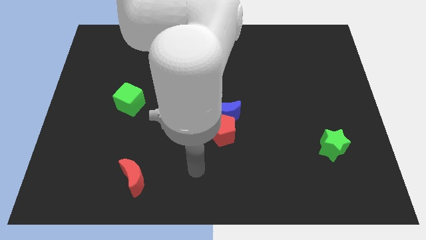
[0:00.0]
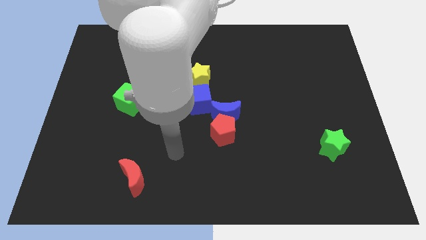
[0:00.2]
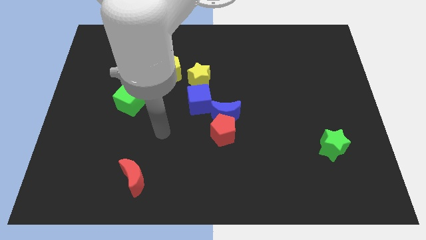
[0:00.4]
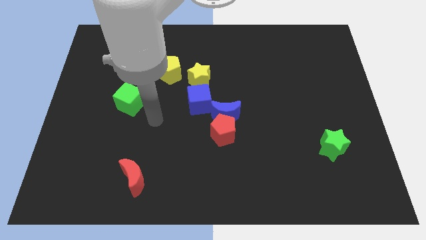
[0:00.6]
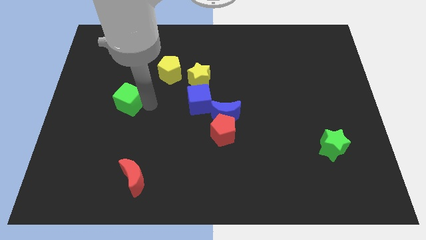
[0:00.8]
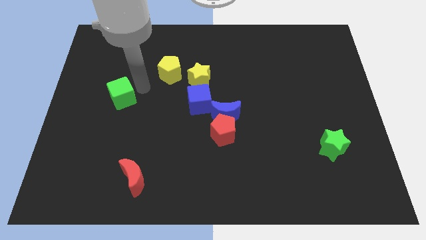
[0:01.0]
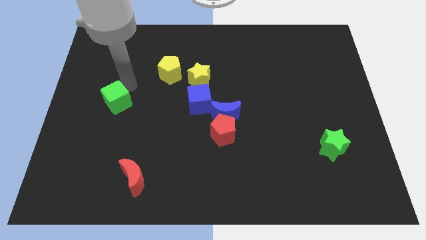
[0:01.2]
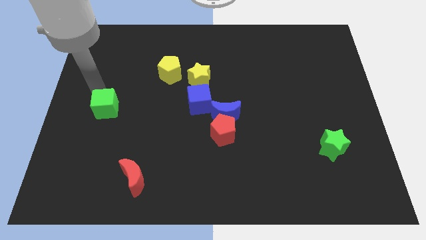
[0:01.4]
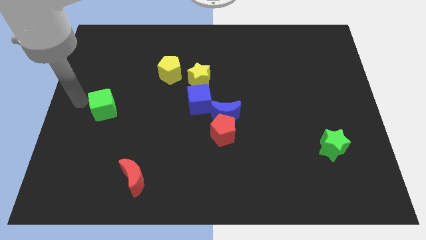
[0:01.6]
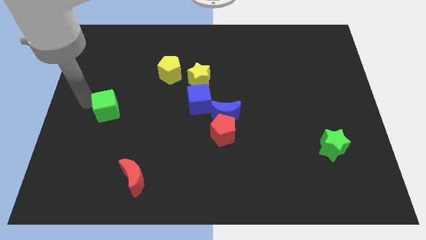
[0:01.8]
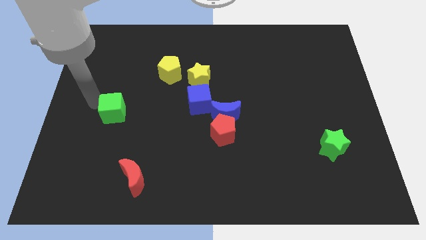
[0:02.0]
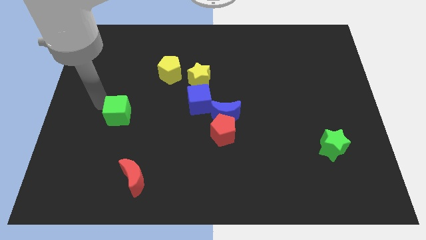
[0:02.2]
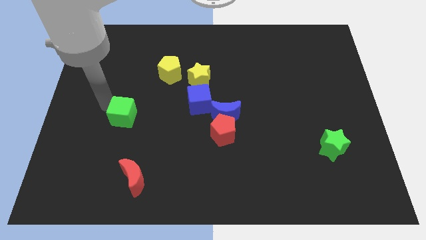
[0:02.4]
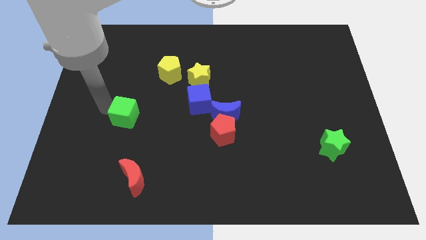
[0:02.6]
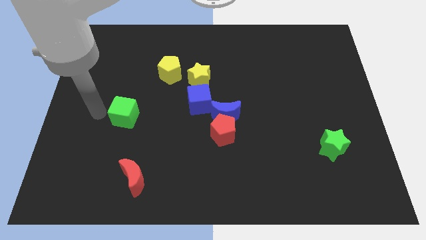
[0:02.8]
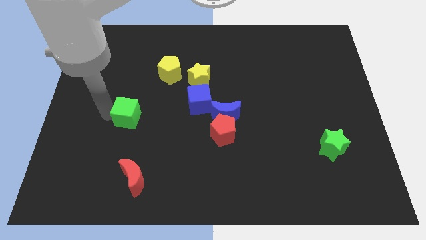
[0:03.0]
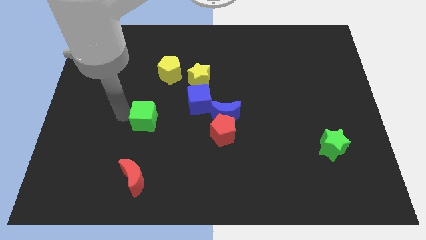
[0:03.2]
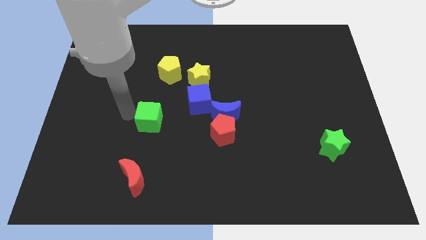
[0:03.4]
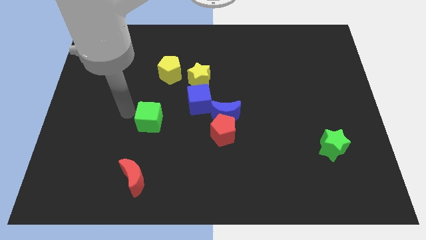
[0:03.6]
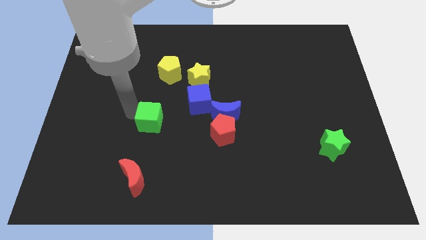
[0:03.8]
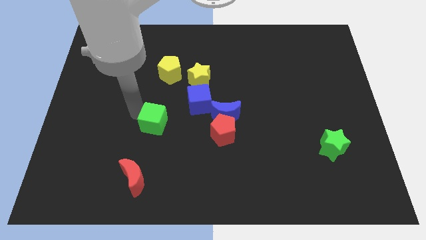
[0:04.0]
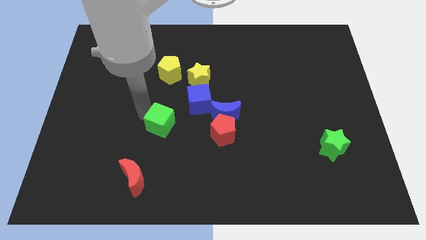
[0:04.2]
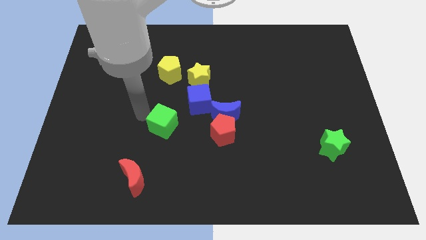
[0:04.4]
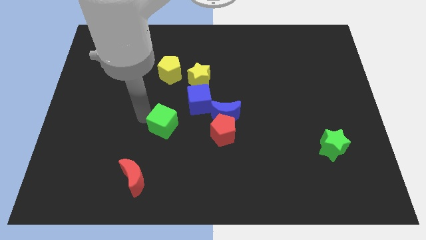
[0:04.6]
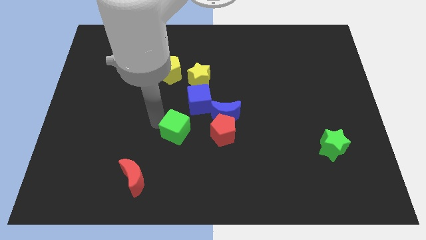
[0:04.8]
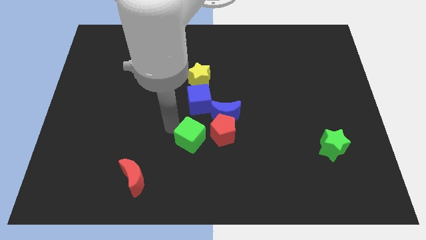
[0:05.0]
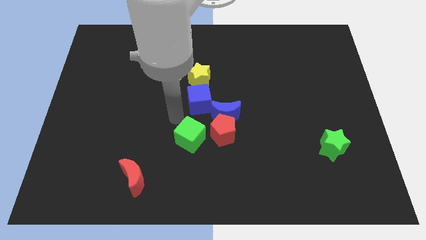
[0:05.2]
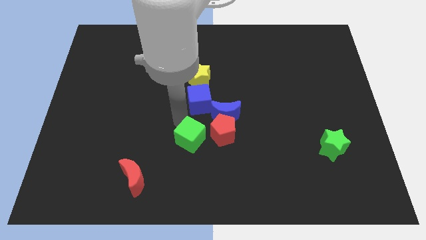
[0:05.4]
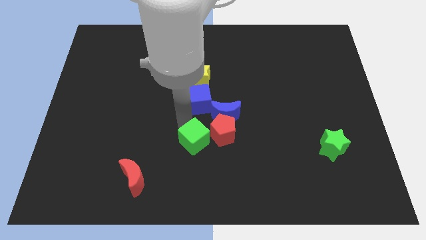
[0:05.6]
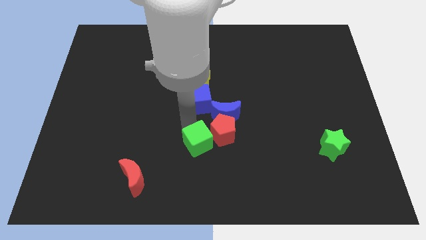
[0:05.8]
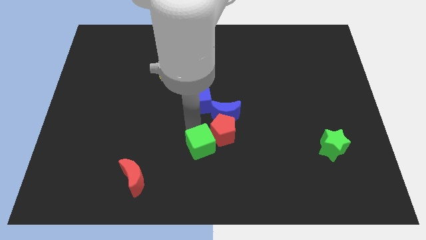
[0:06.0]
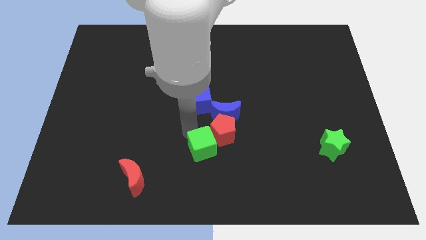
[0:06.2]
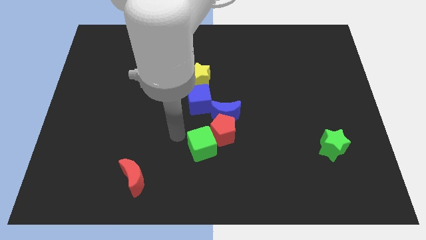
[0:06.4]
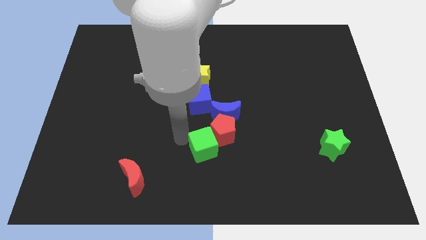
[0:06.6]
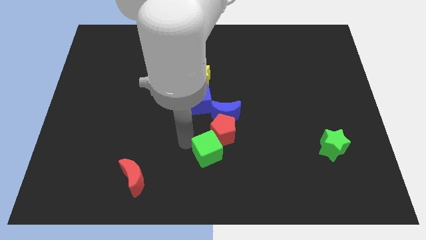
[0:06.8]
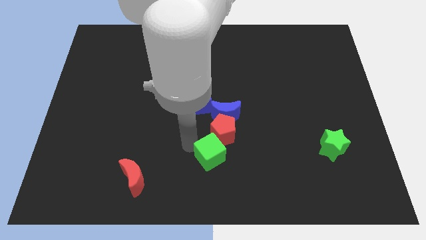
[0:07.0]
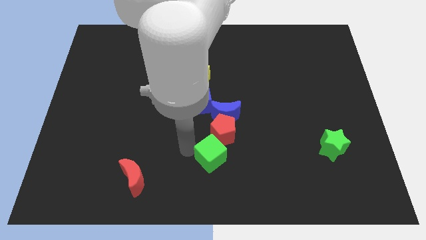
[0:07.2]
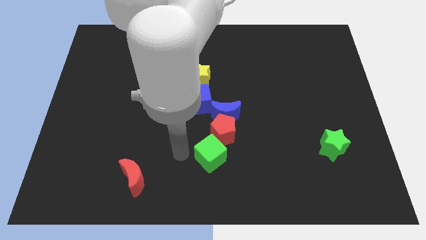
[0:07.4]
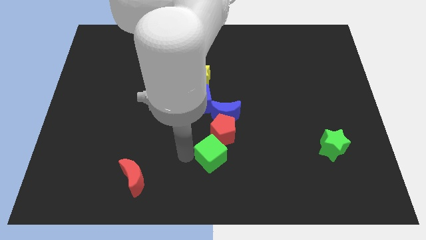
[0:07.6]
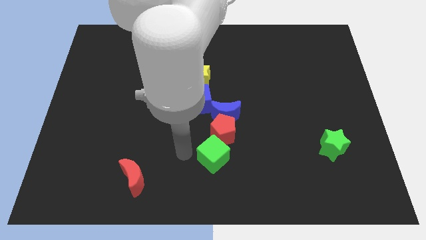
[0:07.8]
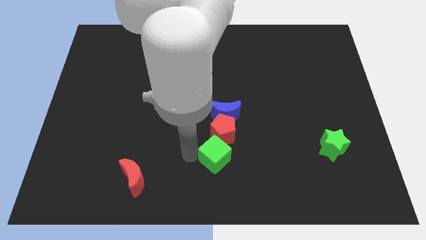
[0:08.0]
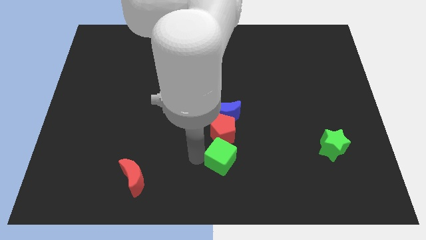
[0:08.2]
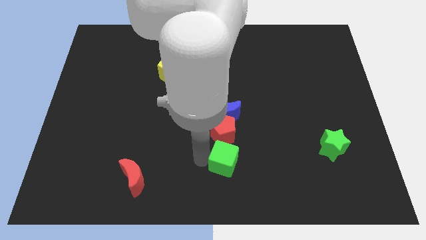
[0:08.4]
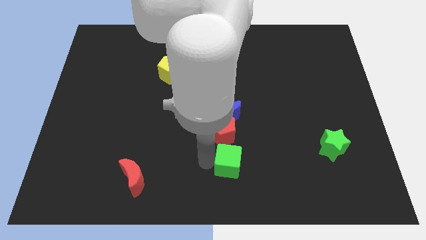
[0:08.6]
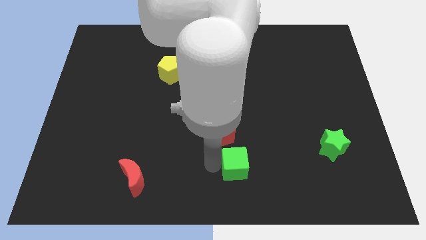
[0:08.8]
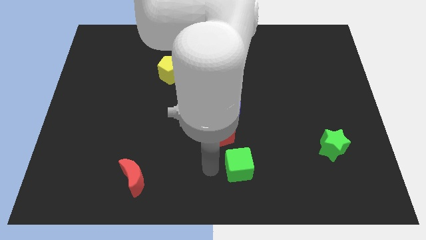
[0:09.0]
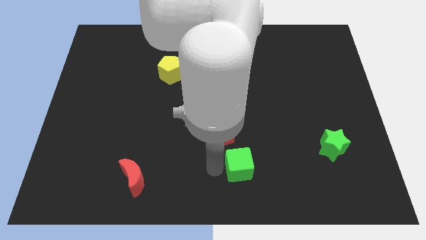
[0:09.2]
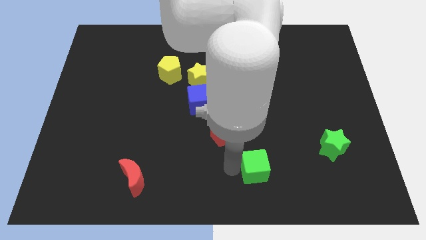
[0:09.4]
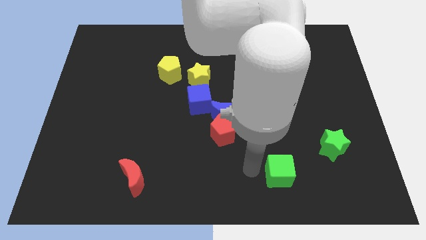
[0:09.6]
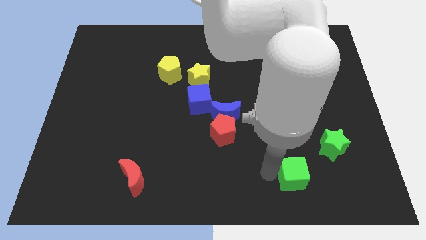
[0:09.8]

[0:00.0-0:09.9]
push the green cube to the bottom left side of the green star
